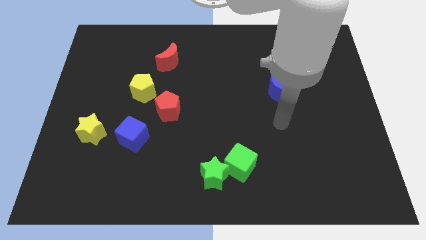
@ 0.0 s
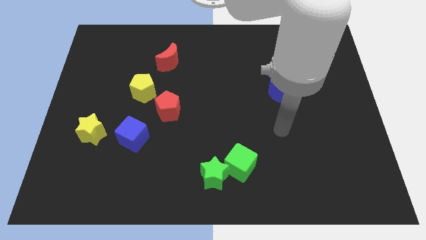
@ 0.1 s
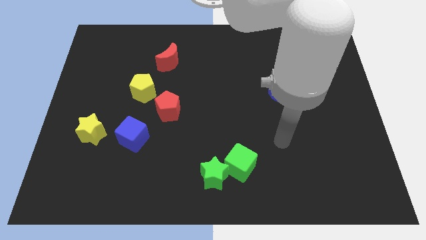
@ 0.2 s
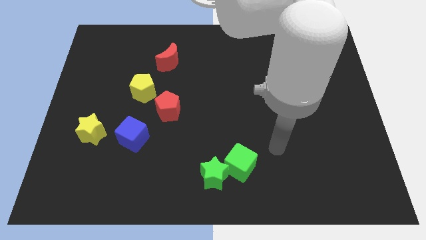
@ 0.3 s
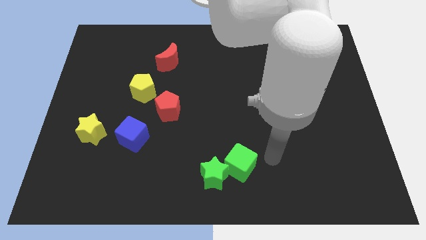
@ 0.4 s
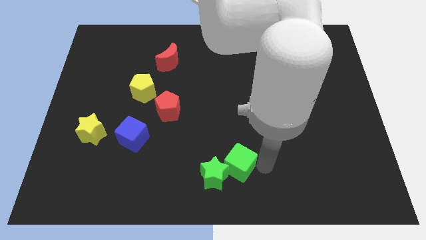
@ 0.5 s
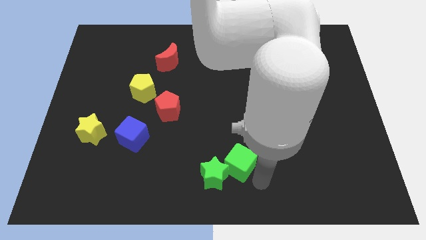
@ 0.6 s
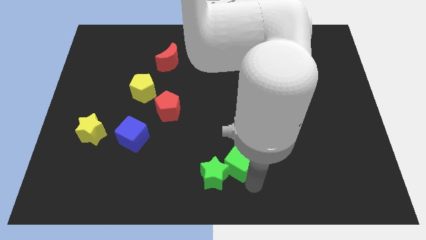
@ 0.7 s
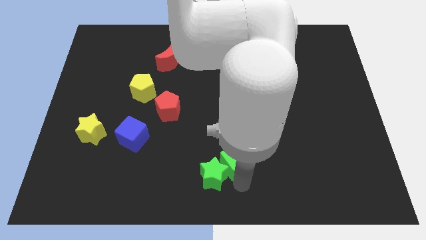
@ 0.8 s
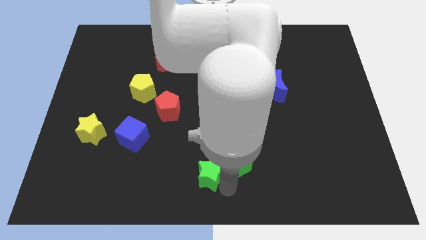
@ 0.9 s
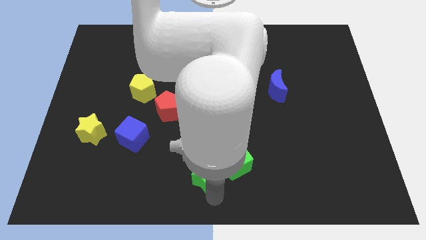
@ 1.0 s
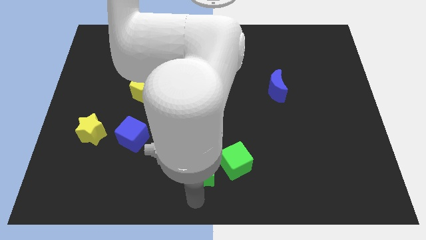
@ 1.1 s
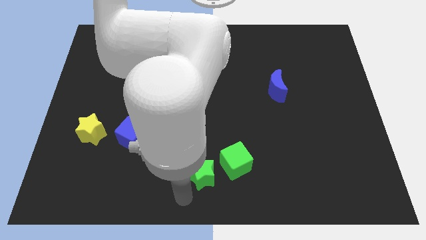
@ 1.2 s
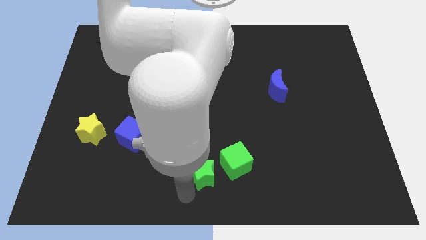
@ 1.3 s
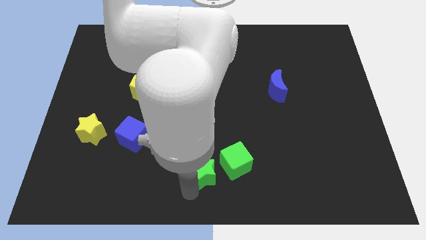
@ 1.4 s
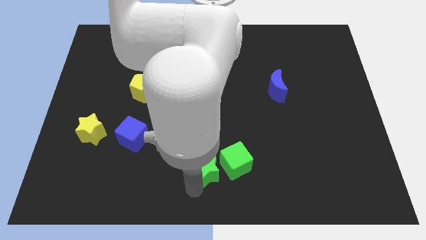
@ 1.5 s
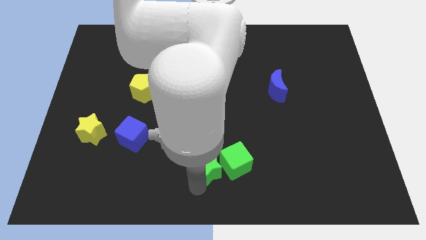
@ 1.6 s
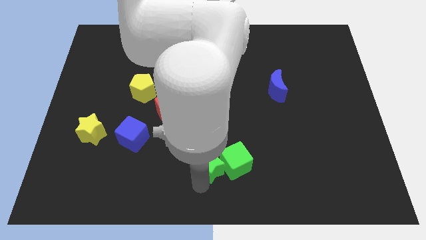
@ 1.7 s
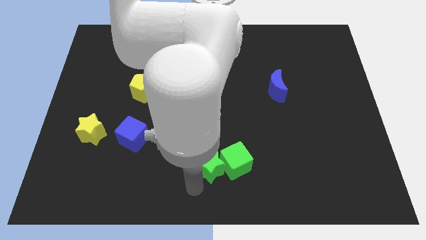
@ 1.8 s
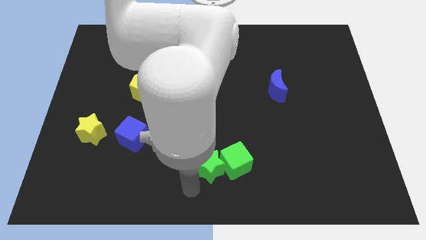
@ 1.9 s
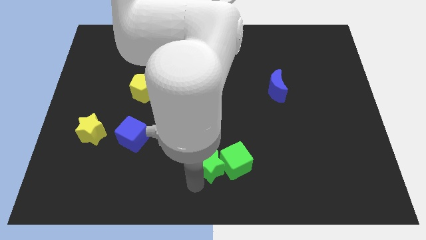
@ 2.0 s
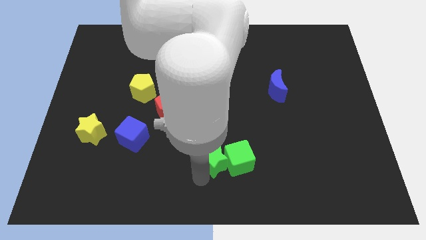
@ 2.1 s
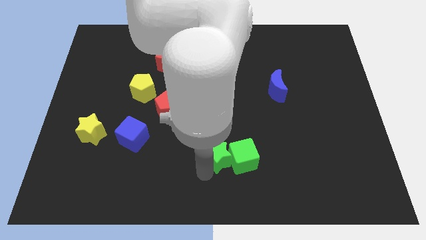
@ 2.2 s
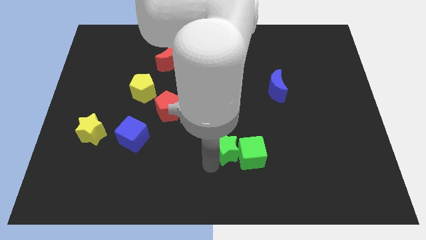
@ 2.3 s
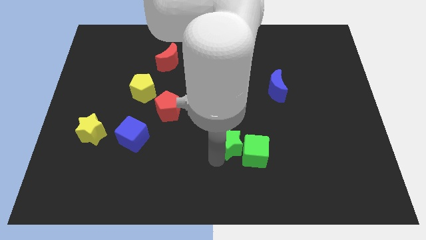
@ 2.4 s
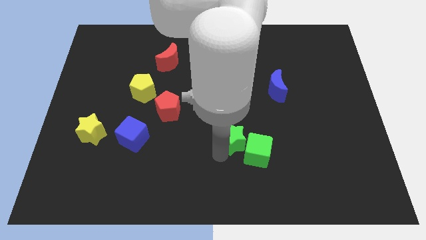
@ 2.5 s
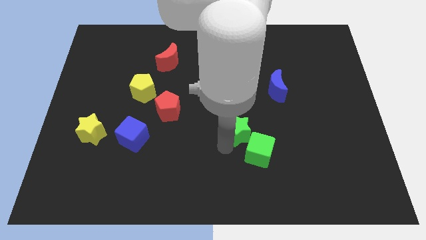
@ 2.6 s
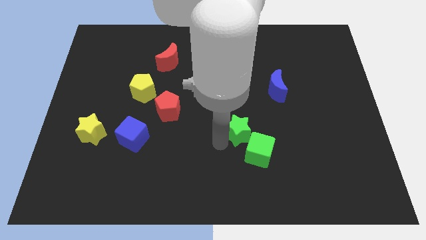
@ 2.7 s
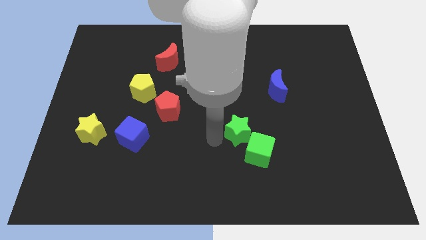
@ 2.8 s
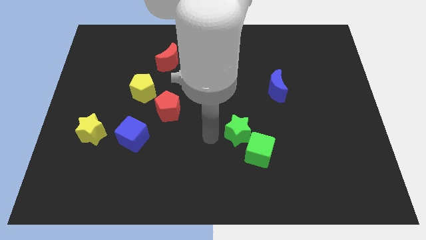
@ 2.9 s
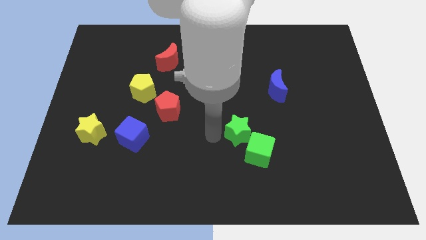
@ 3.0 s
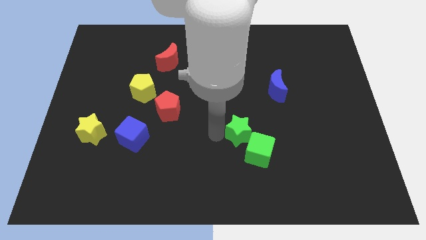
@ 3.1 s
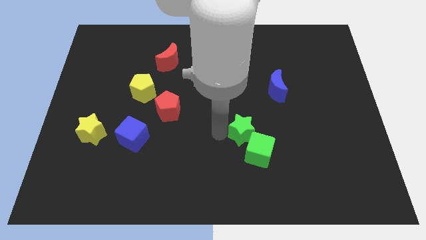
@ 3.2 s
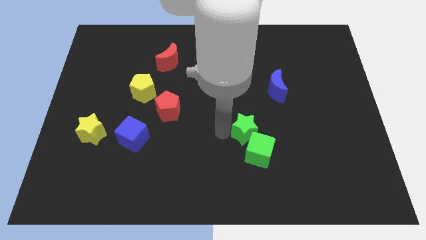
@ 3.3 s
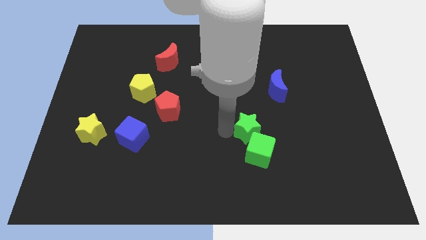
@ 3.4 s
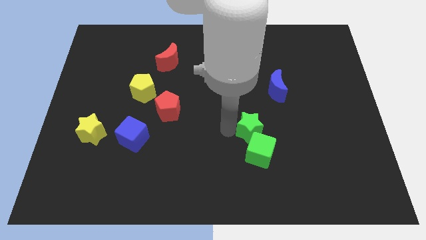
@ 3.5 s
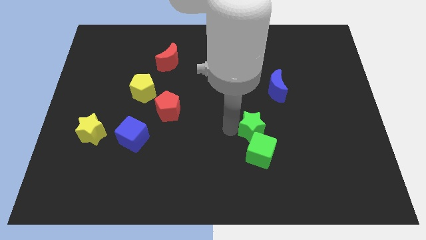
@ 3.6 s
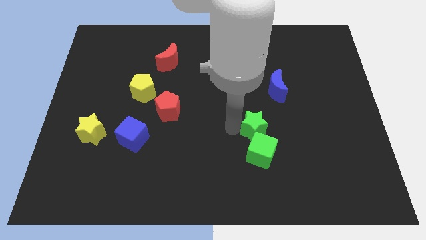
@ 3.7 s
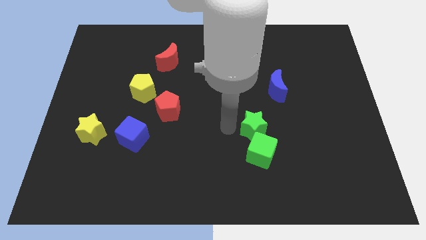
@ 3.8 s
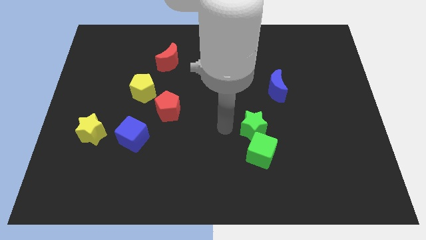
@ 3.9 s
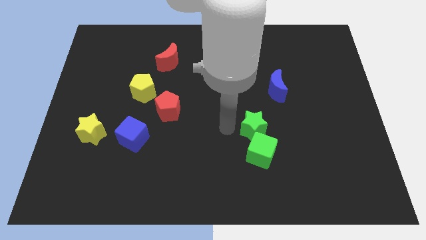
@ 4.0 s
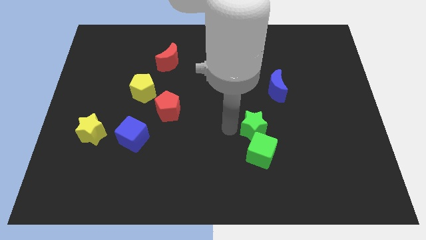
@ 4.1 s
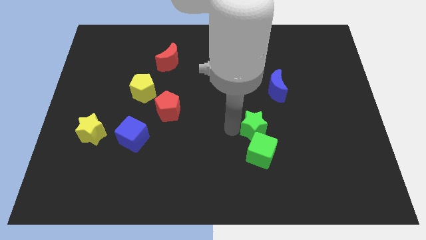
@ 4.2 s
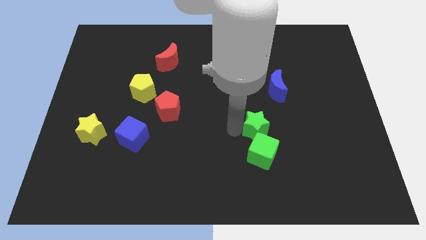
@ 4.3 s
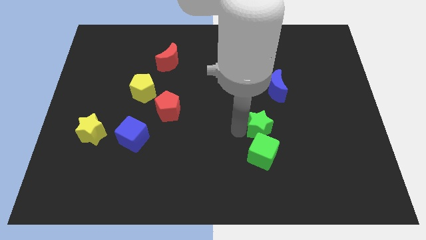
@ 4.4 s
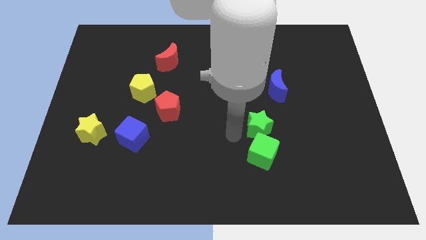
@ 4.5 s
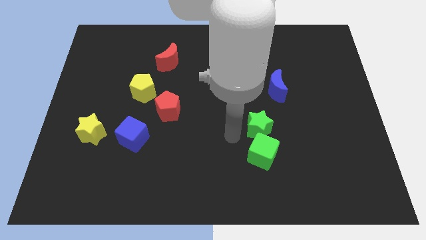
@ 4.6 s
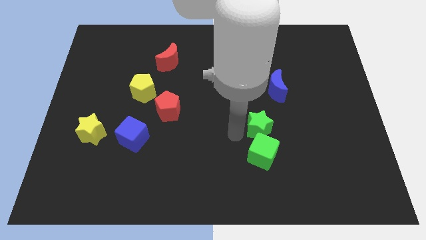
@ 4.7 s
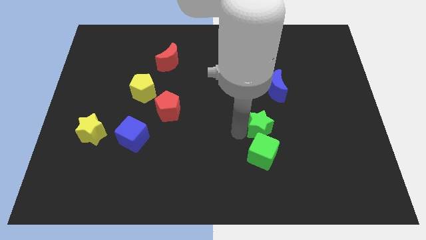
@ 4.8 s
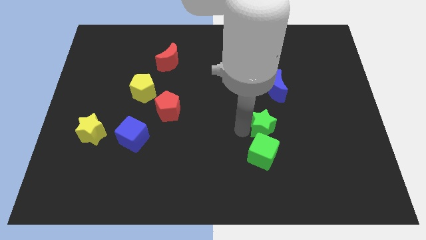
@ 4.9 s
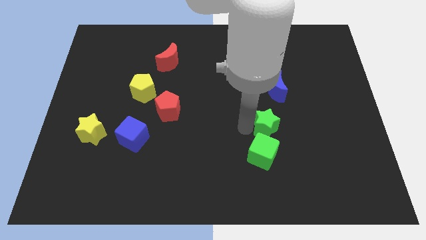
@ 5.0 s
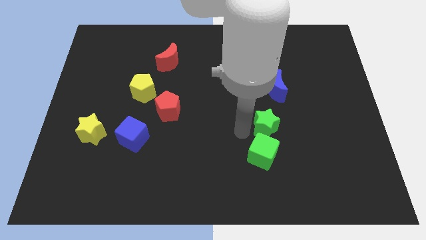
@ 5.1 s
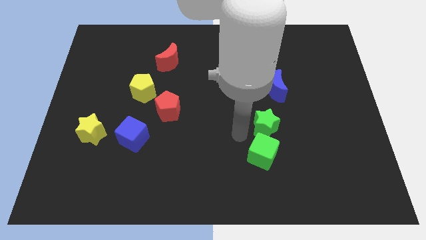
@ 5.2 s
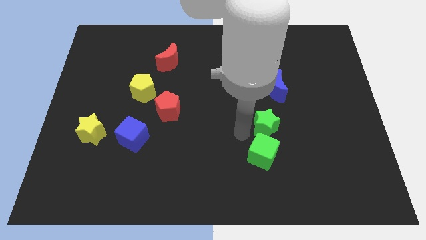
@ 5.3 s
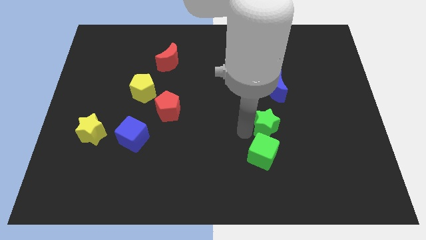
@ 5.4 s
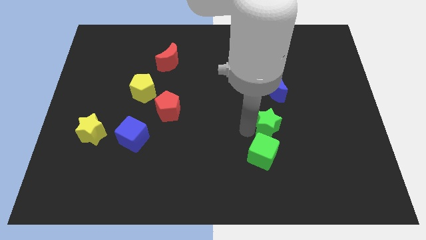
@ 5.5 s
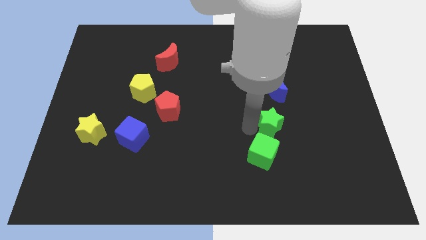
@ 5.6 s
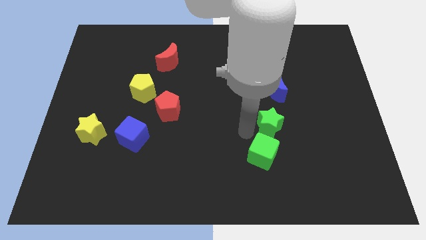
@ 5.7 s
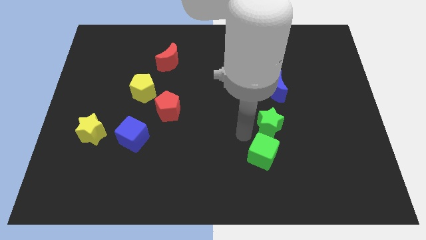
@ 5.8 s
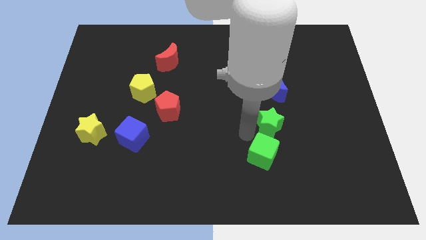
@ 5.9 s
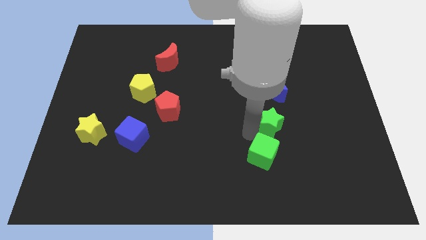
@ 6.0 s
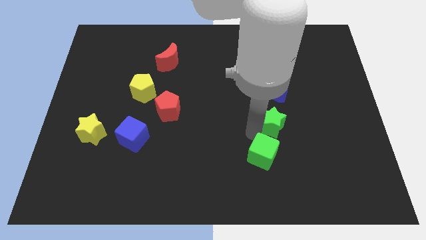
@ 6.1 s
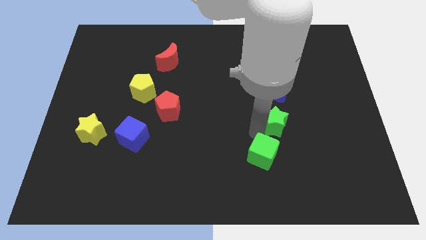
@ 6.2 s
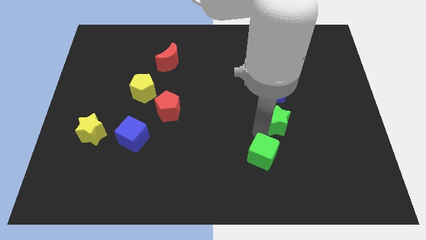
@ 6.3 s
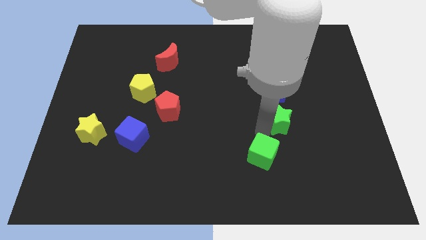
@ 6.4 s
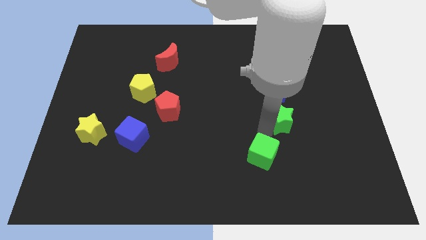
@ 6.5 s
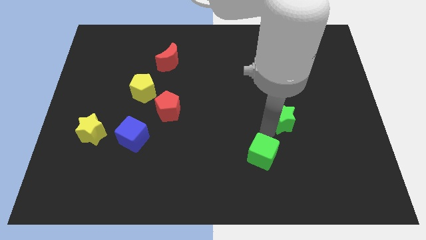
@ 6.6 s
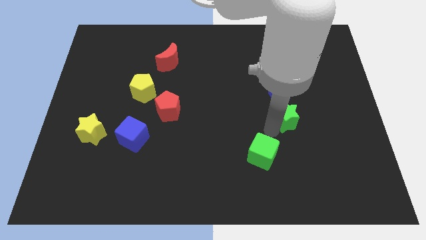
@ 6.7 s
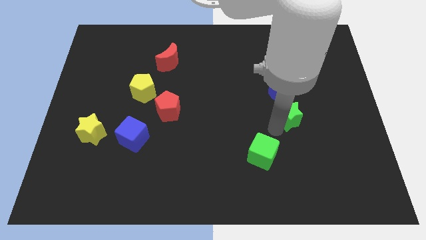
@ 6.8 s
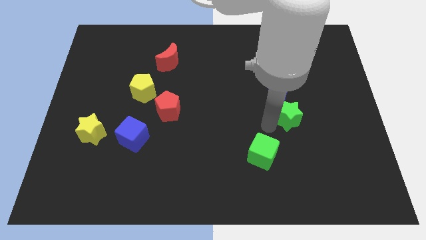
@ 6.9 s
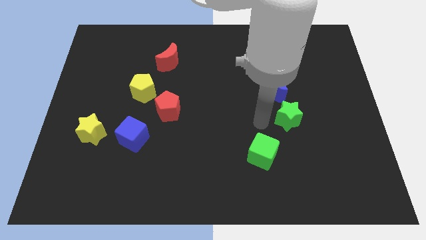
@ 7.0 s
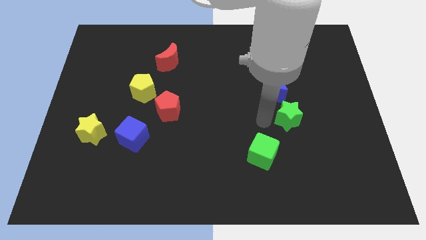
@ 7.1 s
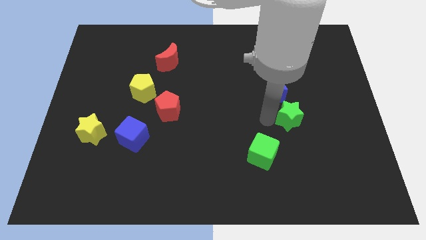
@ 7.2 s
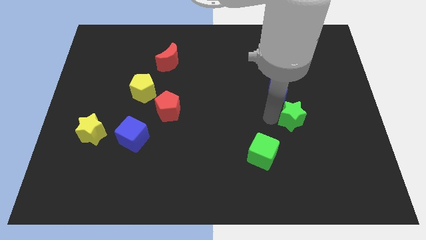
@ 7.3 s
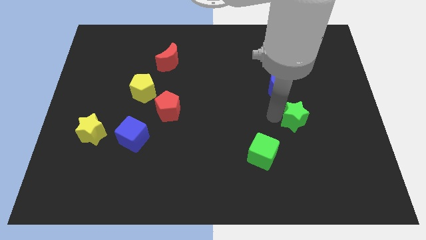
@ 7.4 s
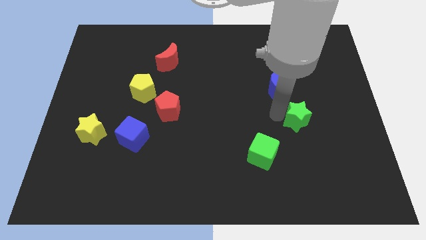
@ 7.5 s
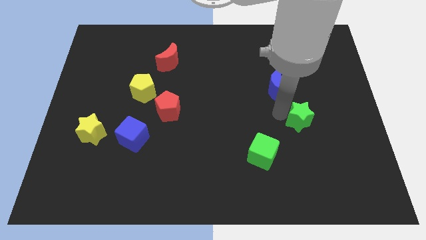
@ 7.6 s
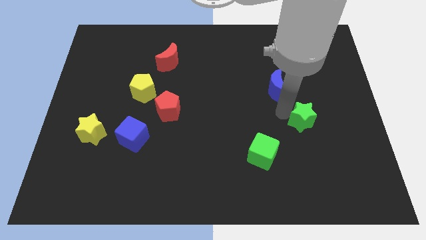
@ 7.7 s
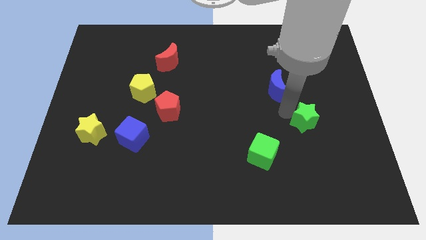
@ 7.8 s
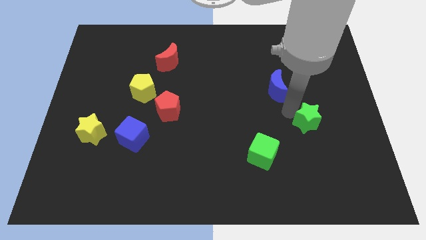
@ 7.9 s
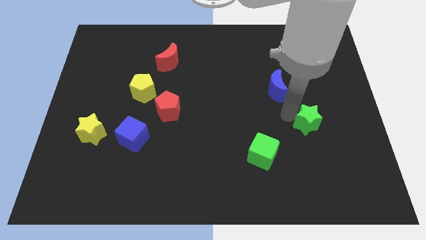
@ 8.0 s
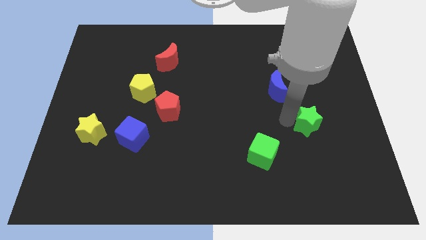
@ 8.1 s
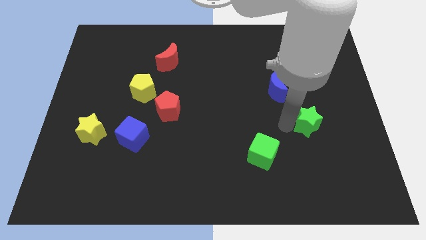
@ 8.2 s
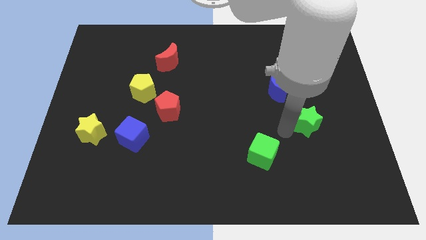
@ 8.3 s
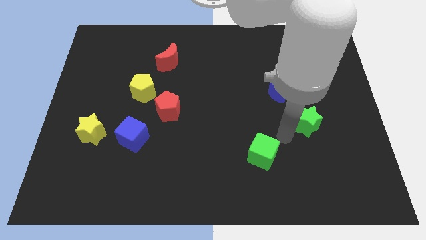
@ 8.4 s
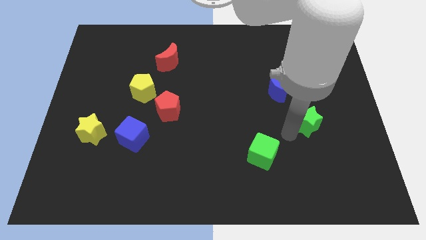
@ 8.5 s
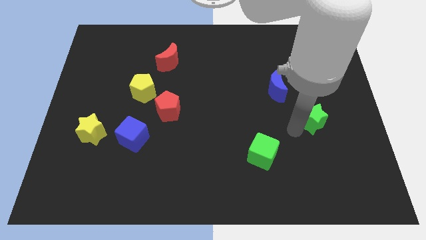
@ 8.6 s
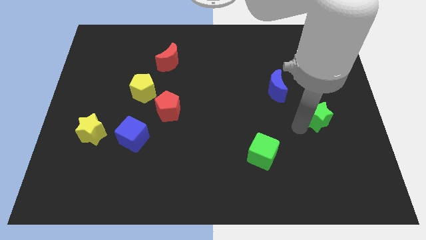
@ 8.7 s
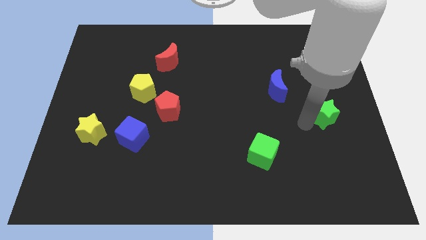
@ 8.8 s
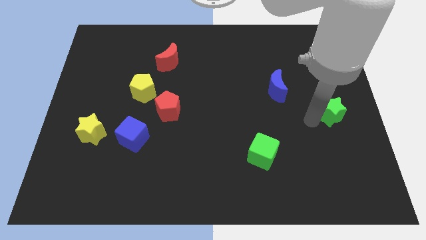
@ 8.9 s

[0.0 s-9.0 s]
move the green star to the center right
